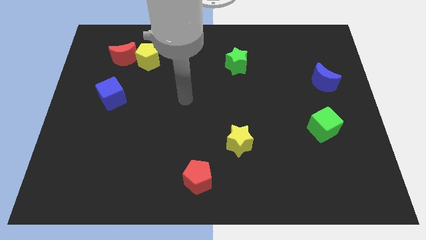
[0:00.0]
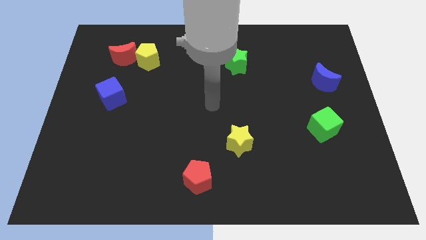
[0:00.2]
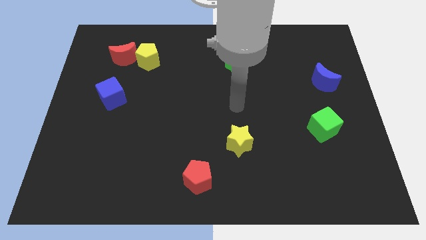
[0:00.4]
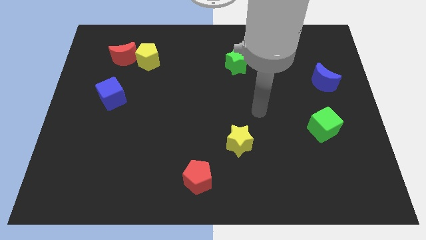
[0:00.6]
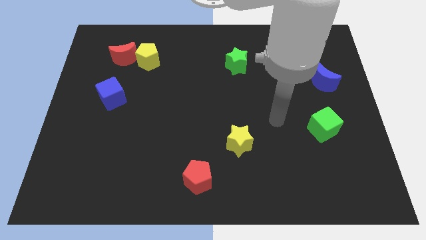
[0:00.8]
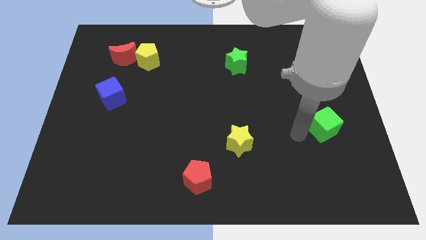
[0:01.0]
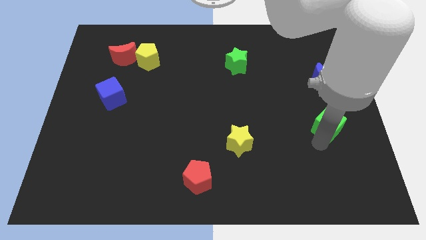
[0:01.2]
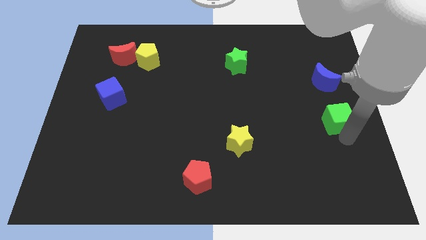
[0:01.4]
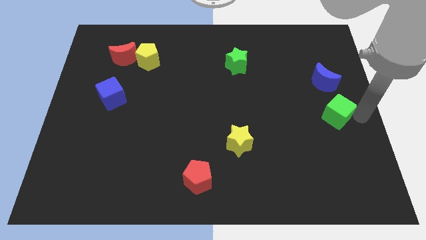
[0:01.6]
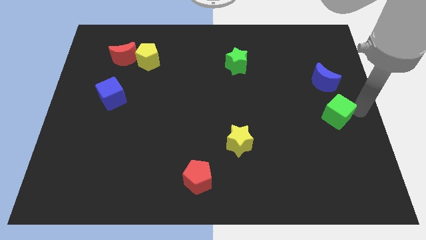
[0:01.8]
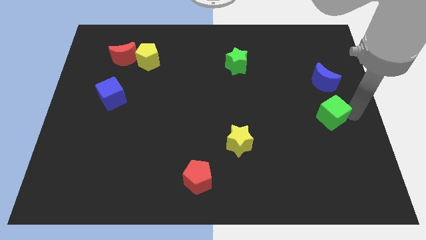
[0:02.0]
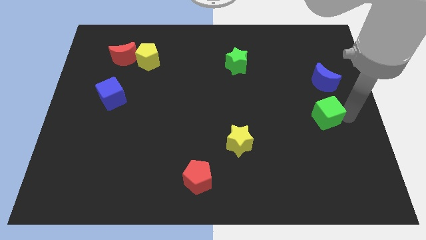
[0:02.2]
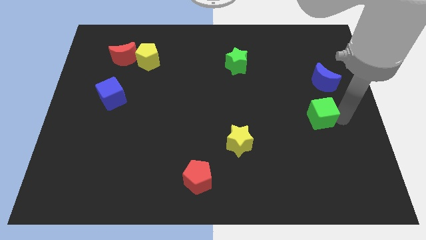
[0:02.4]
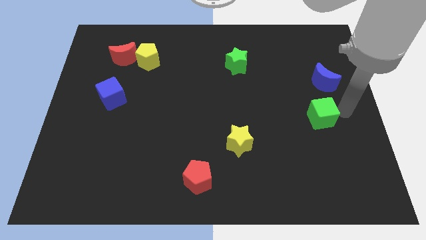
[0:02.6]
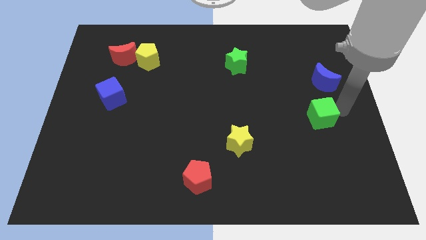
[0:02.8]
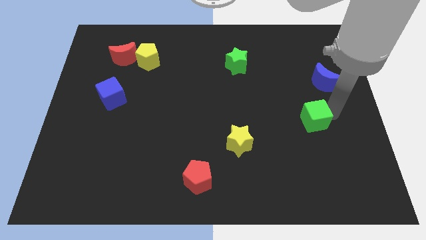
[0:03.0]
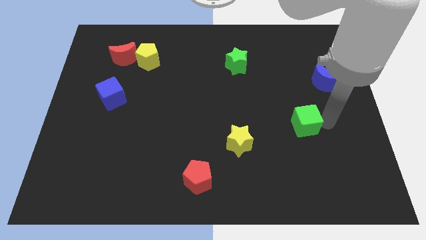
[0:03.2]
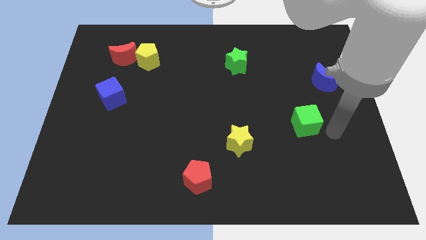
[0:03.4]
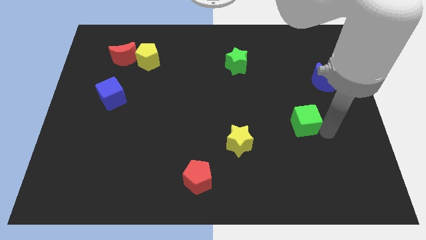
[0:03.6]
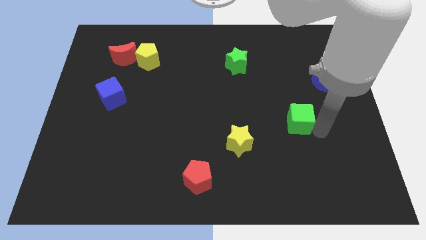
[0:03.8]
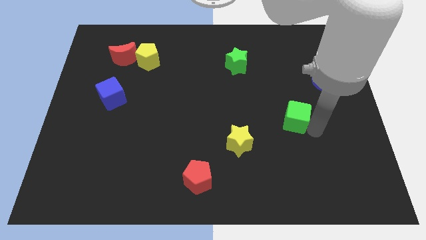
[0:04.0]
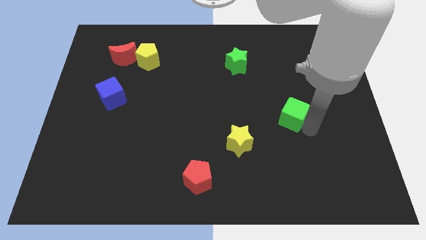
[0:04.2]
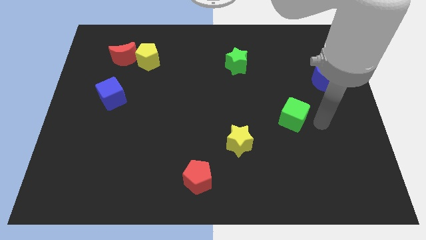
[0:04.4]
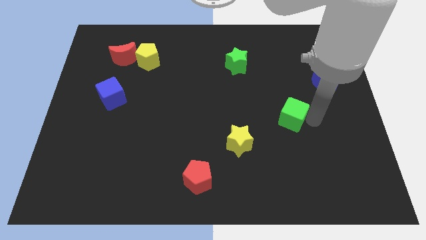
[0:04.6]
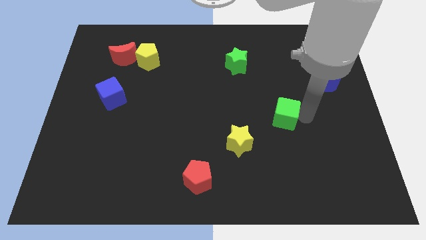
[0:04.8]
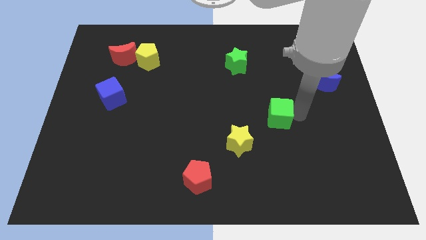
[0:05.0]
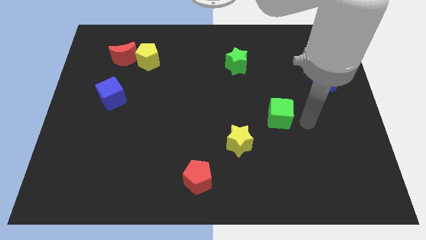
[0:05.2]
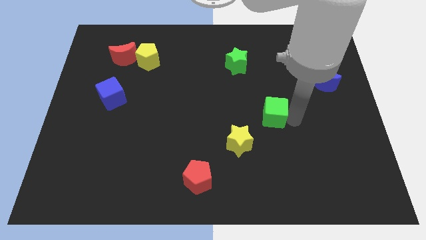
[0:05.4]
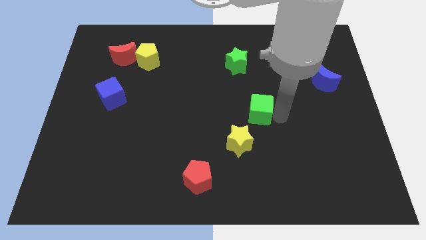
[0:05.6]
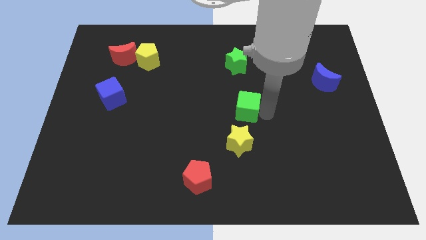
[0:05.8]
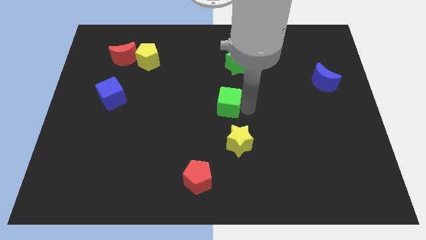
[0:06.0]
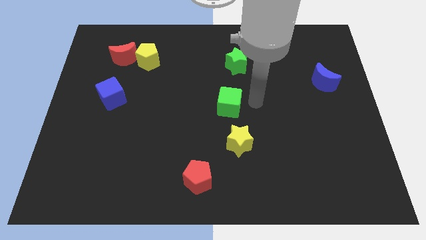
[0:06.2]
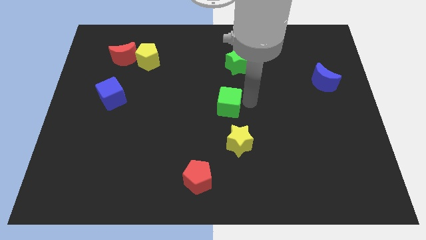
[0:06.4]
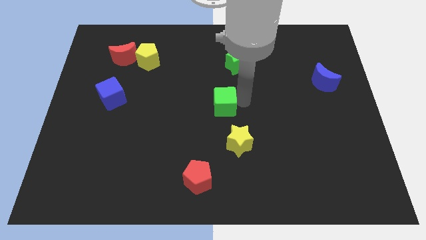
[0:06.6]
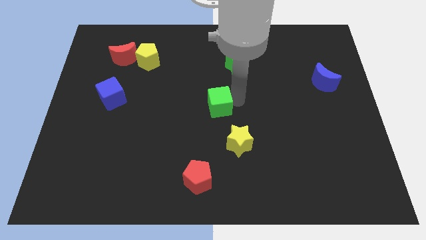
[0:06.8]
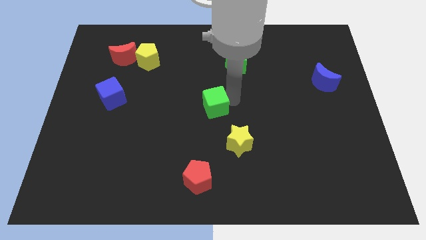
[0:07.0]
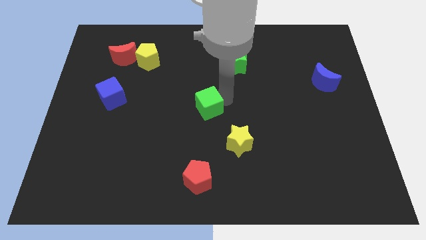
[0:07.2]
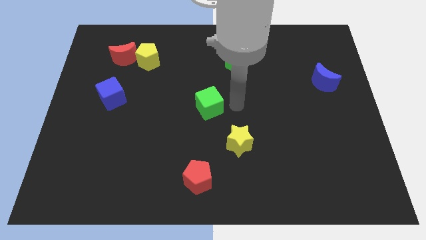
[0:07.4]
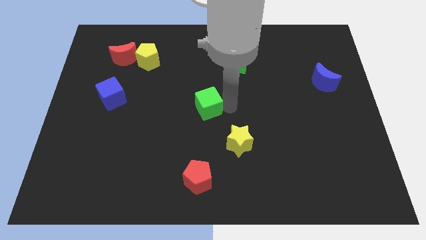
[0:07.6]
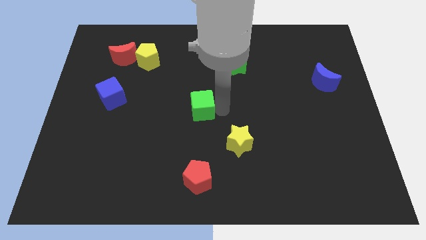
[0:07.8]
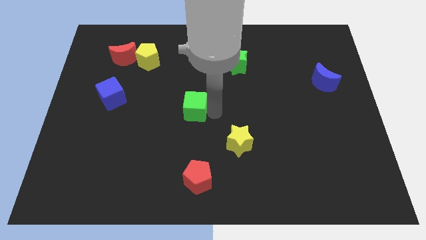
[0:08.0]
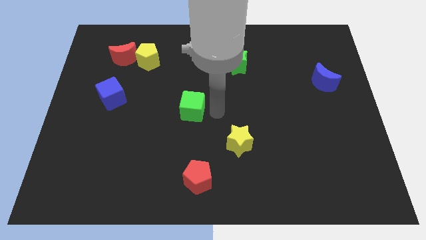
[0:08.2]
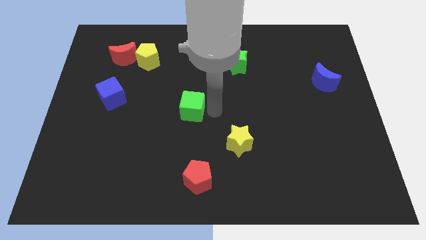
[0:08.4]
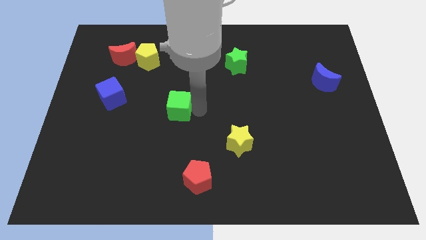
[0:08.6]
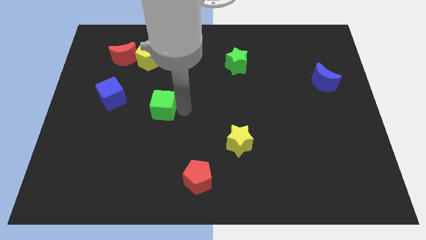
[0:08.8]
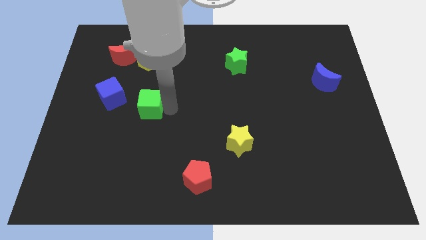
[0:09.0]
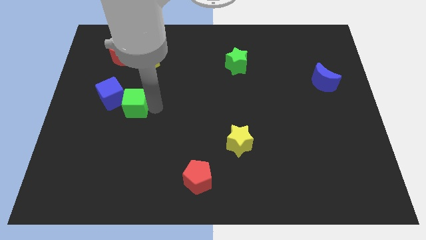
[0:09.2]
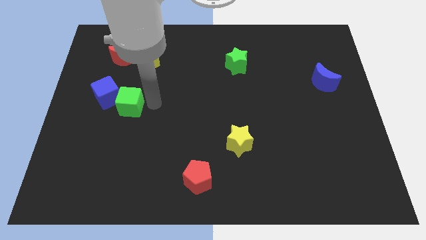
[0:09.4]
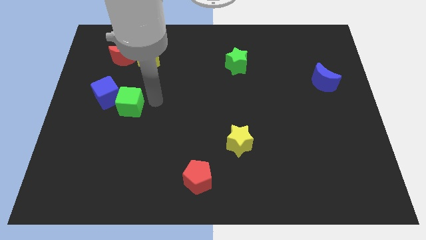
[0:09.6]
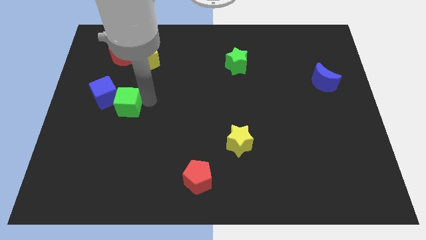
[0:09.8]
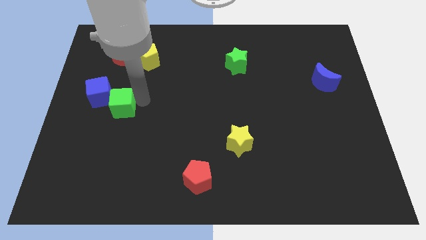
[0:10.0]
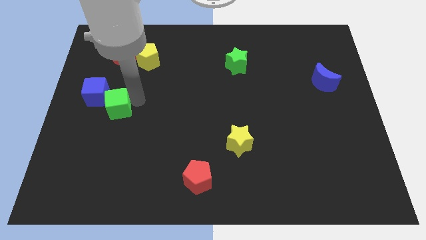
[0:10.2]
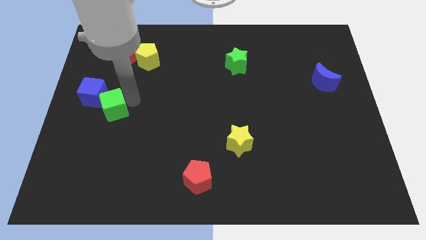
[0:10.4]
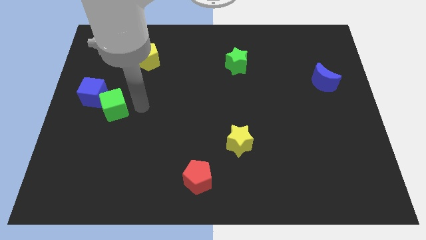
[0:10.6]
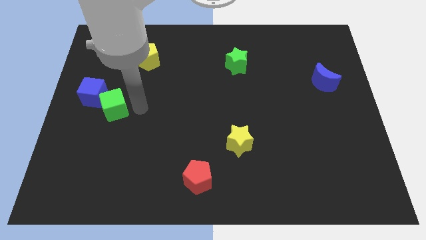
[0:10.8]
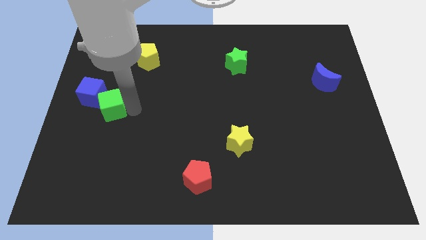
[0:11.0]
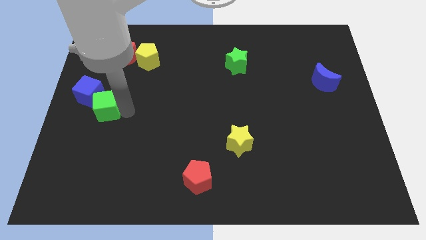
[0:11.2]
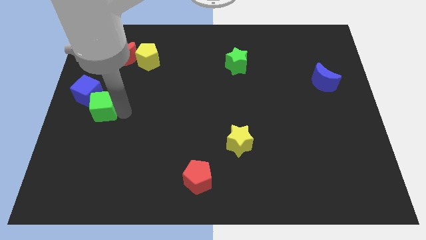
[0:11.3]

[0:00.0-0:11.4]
slide the green cube to the left side

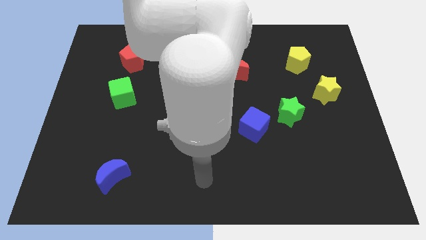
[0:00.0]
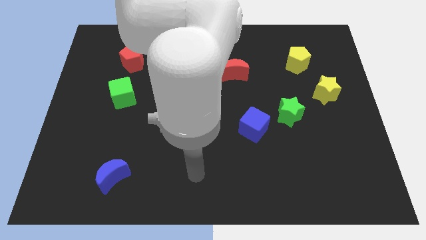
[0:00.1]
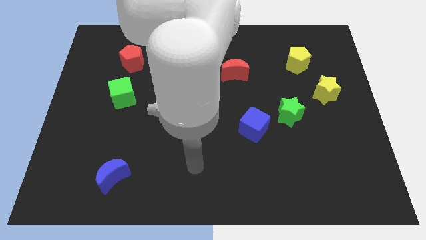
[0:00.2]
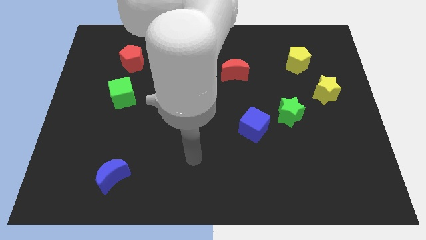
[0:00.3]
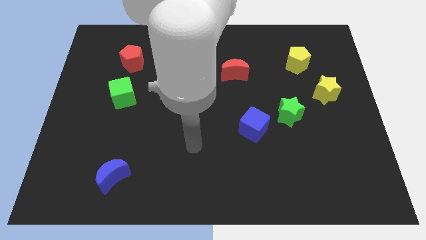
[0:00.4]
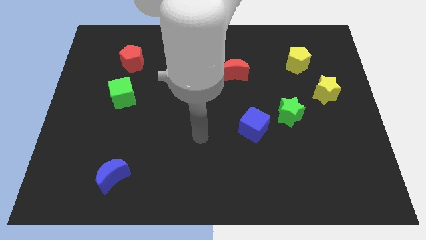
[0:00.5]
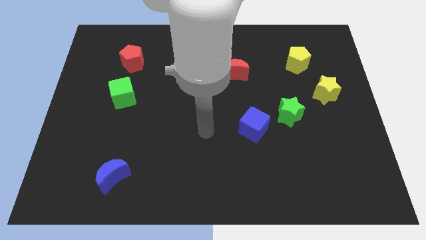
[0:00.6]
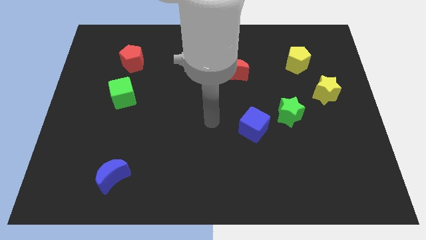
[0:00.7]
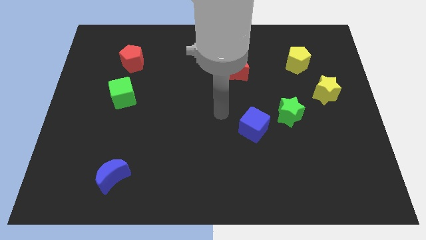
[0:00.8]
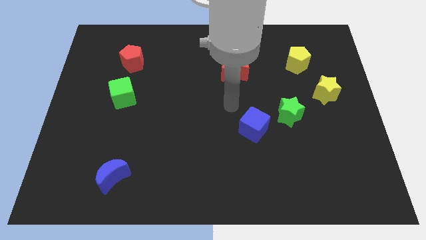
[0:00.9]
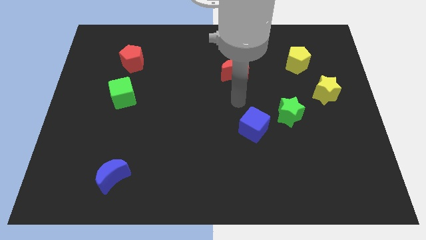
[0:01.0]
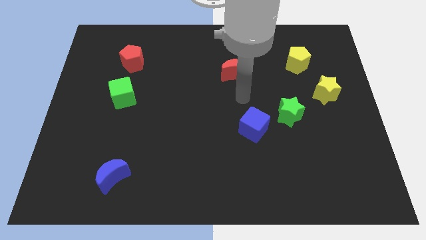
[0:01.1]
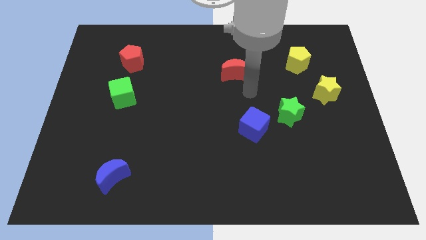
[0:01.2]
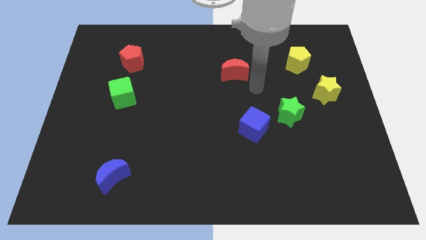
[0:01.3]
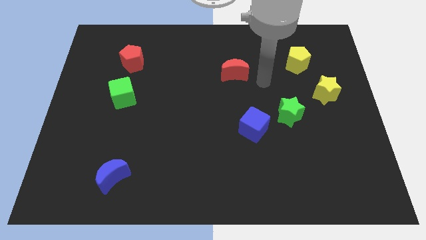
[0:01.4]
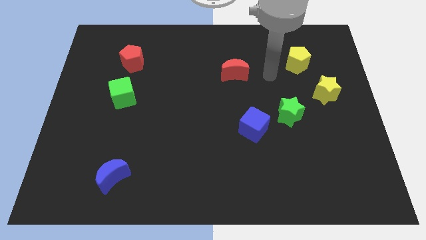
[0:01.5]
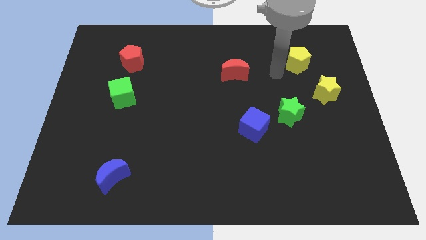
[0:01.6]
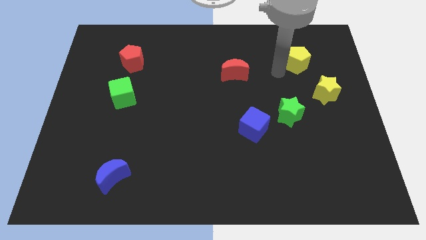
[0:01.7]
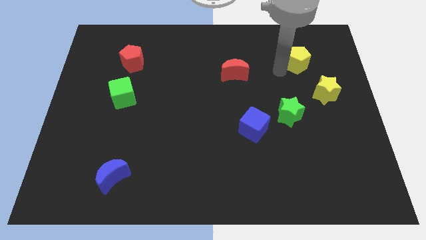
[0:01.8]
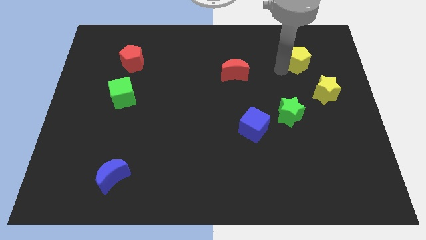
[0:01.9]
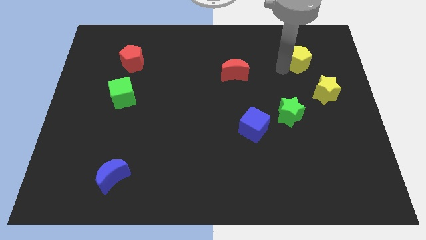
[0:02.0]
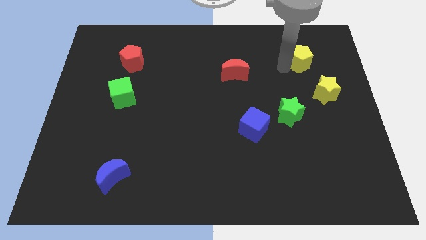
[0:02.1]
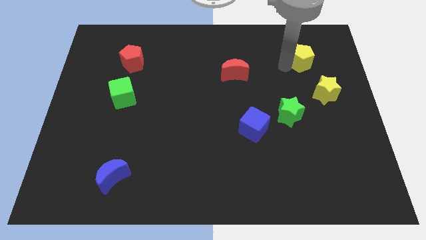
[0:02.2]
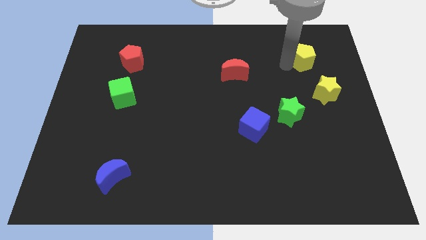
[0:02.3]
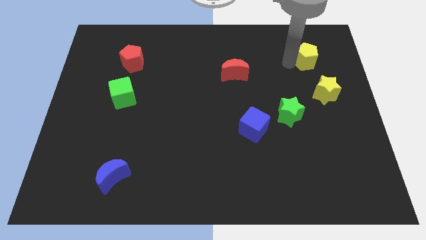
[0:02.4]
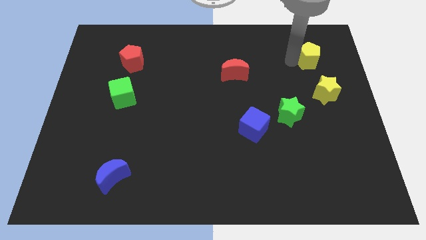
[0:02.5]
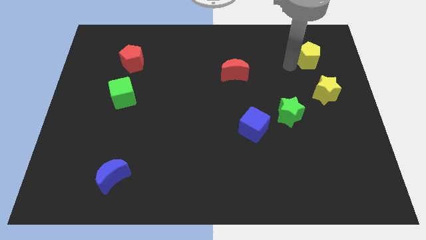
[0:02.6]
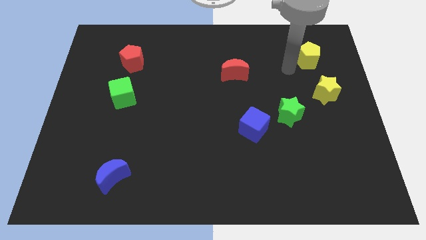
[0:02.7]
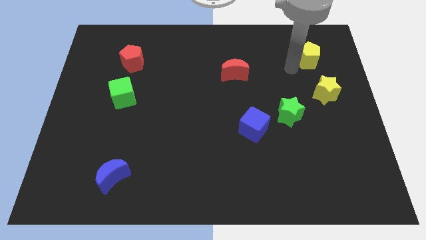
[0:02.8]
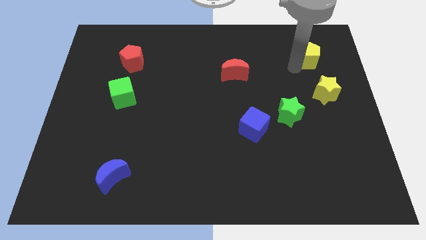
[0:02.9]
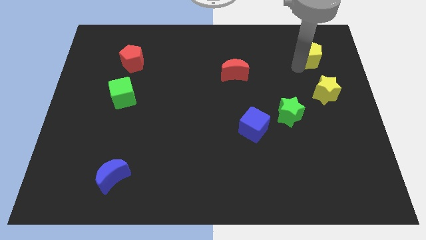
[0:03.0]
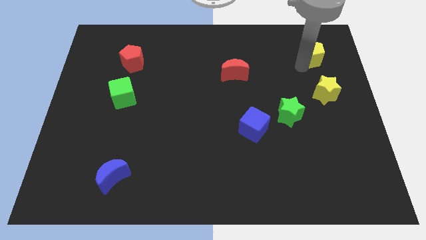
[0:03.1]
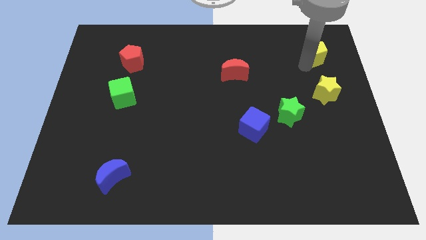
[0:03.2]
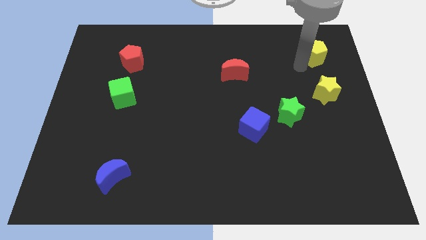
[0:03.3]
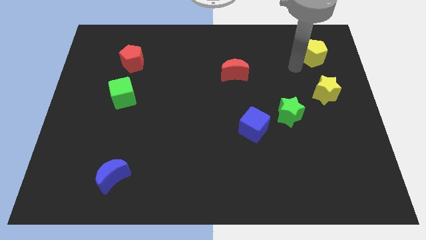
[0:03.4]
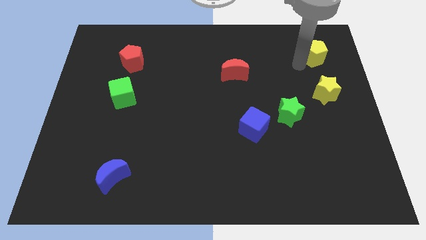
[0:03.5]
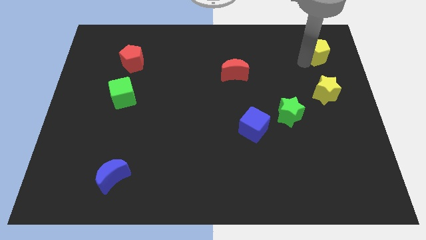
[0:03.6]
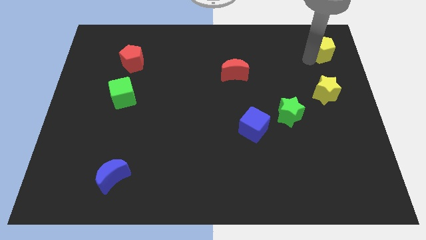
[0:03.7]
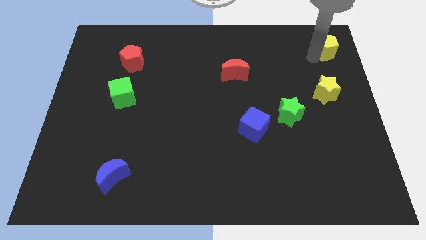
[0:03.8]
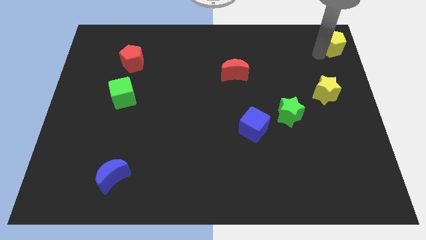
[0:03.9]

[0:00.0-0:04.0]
slide the yellow pentagon to the top right of the board
